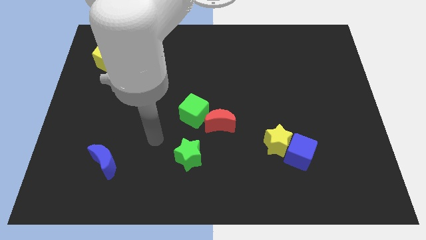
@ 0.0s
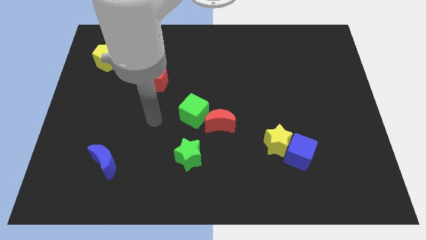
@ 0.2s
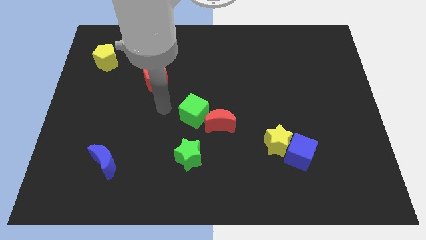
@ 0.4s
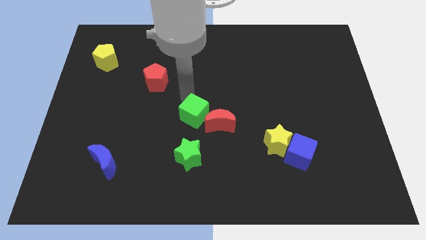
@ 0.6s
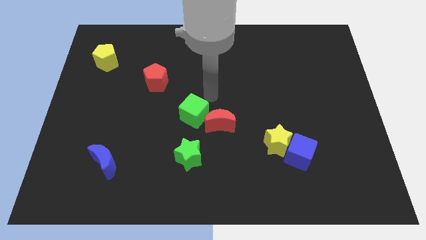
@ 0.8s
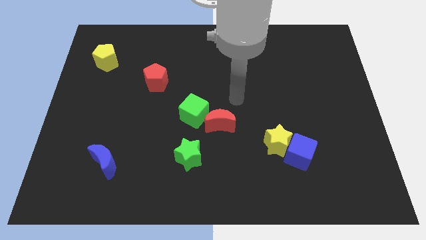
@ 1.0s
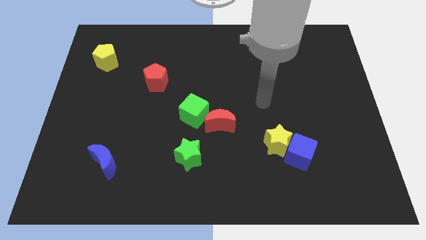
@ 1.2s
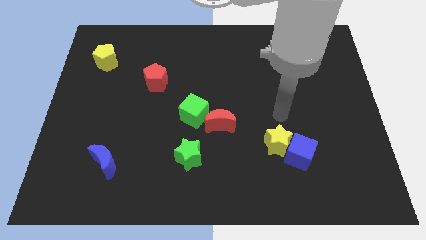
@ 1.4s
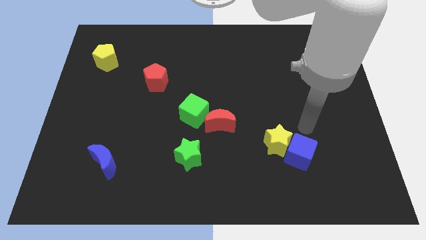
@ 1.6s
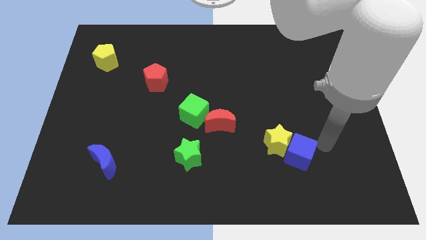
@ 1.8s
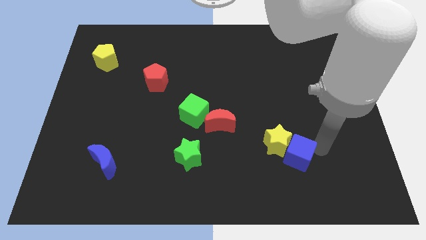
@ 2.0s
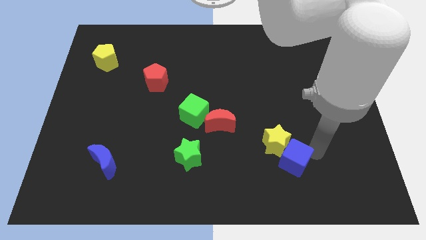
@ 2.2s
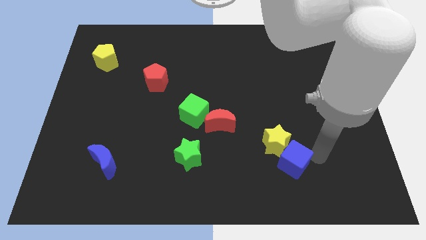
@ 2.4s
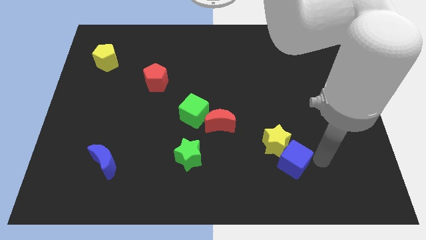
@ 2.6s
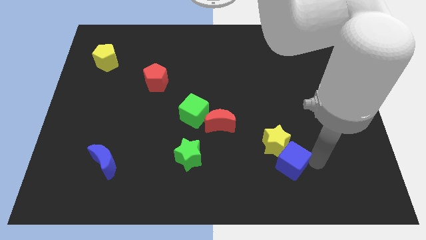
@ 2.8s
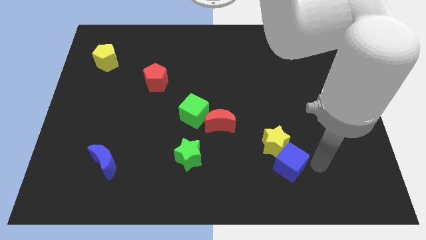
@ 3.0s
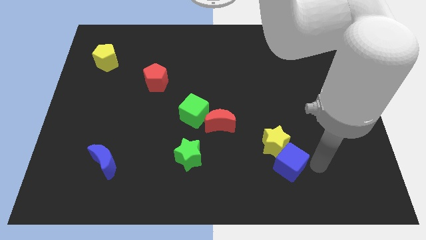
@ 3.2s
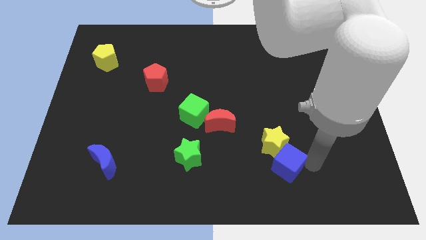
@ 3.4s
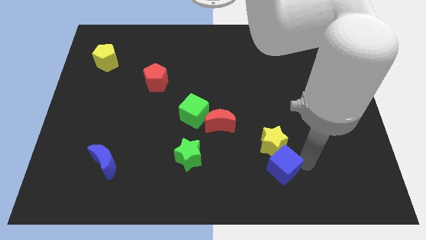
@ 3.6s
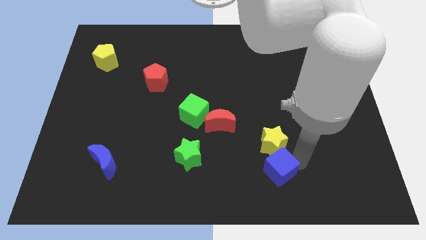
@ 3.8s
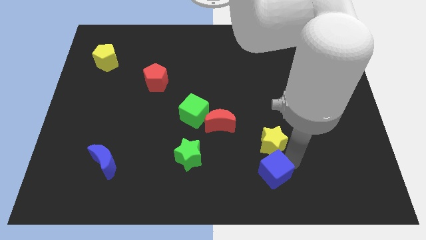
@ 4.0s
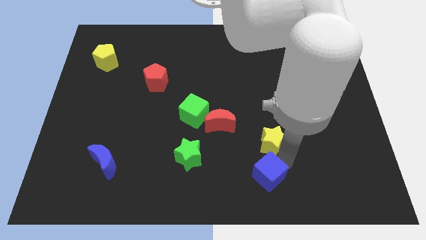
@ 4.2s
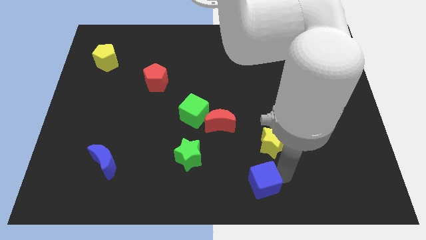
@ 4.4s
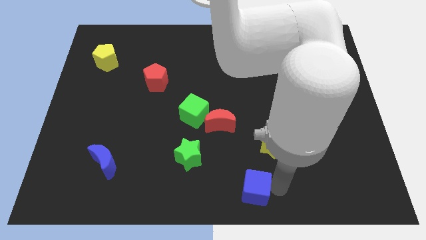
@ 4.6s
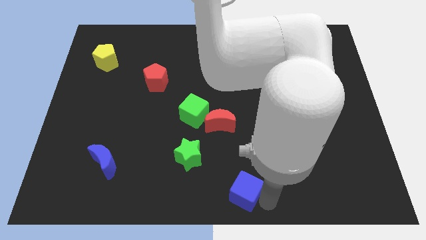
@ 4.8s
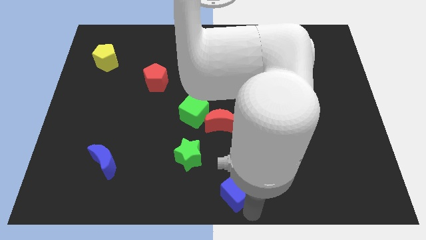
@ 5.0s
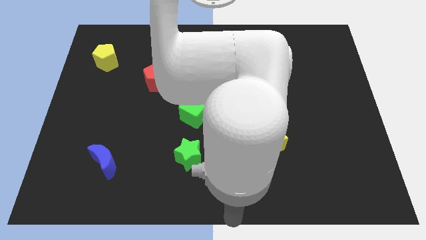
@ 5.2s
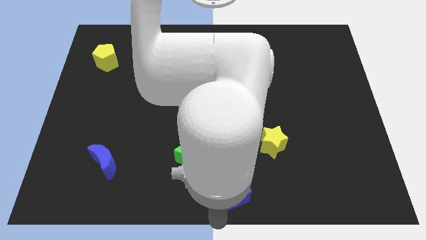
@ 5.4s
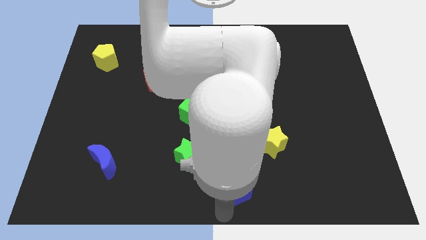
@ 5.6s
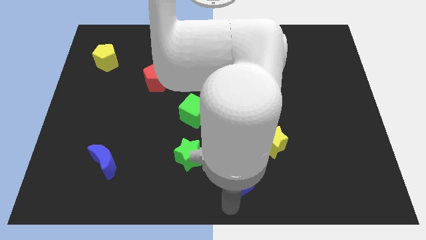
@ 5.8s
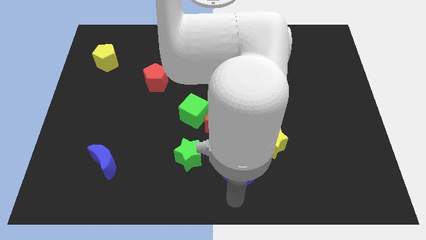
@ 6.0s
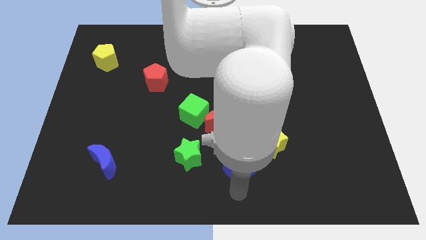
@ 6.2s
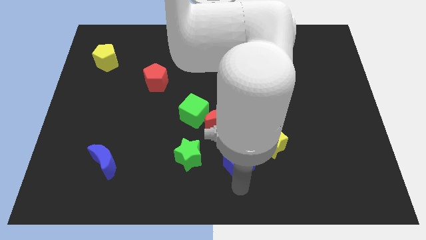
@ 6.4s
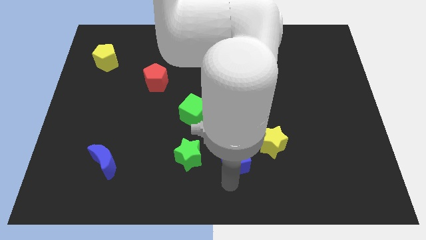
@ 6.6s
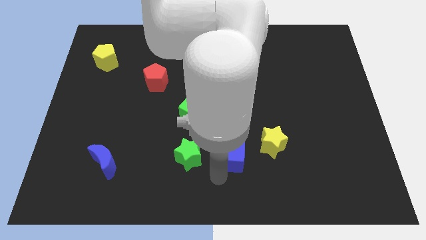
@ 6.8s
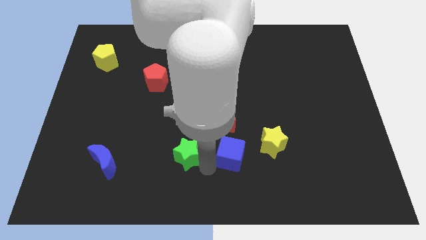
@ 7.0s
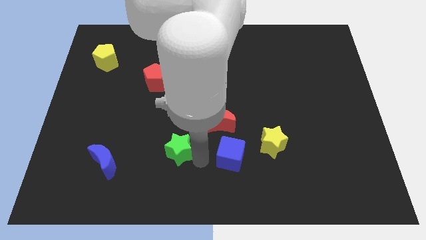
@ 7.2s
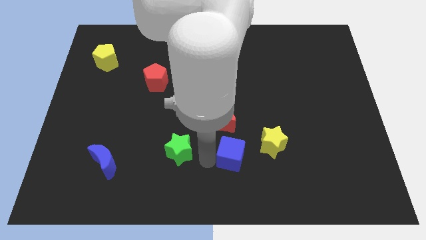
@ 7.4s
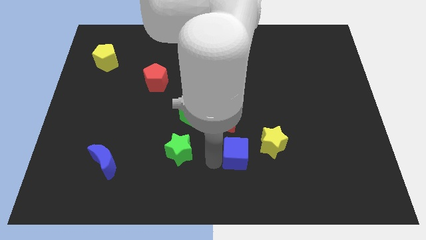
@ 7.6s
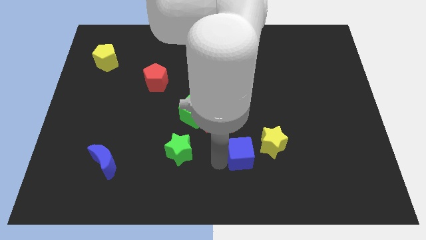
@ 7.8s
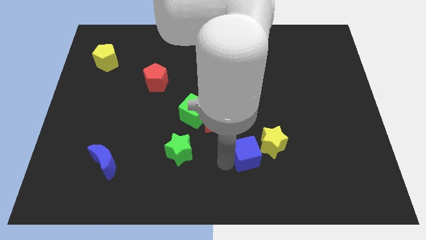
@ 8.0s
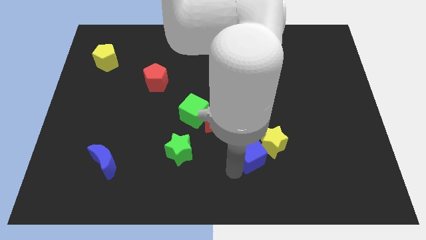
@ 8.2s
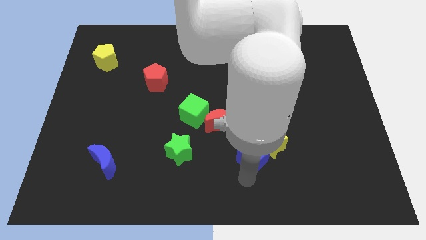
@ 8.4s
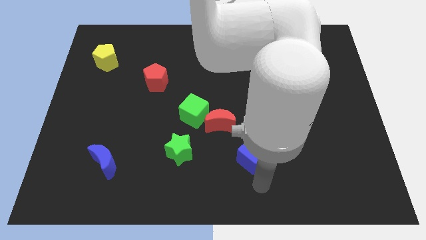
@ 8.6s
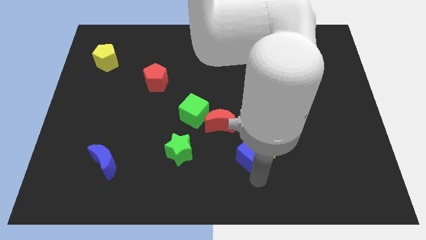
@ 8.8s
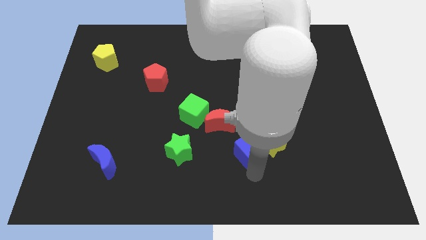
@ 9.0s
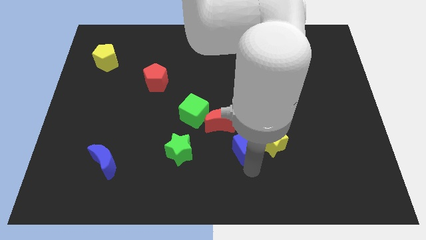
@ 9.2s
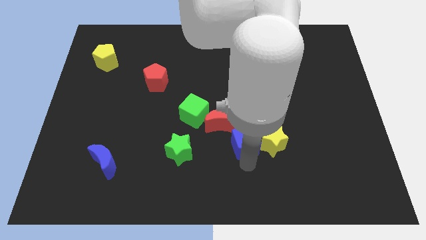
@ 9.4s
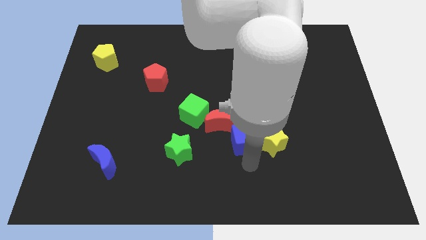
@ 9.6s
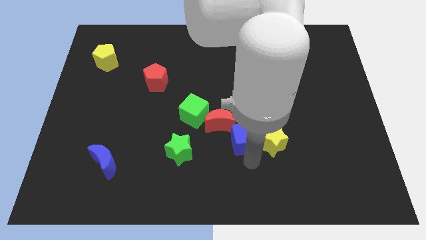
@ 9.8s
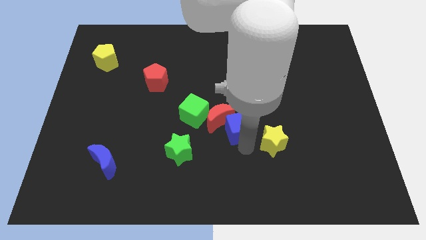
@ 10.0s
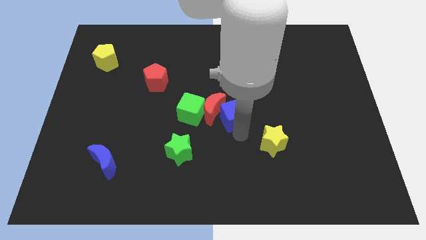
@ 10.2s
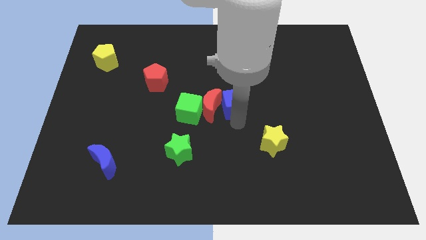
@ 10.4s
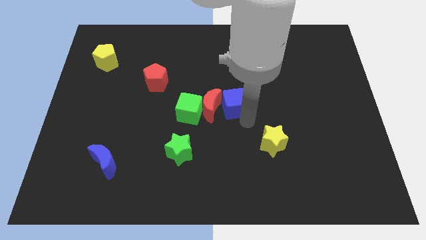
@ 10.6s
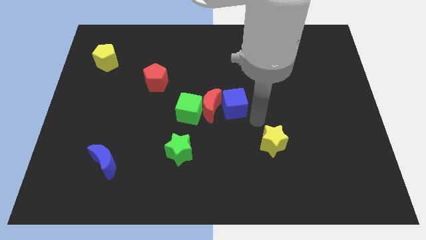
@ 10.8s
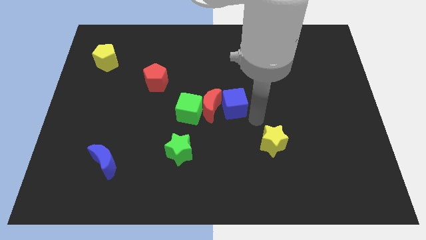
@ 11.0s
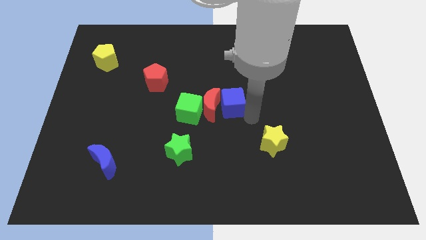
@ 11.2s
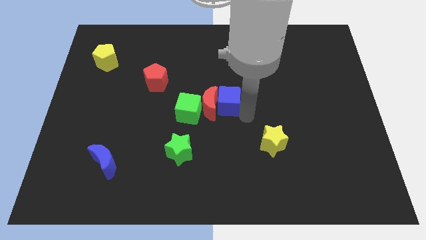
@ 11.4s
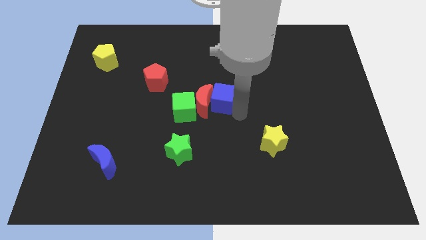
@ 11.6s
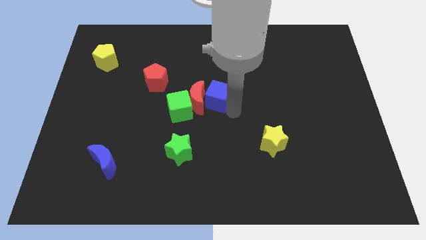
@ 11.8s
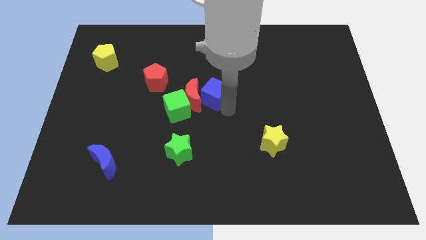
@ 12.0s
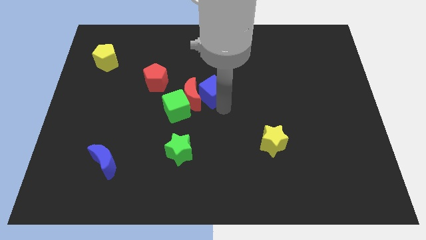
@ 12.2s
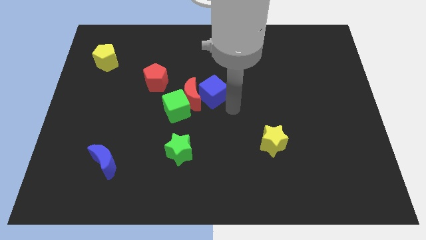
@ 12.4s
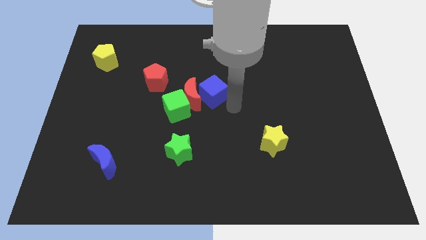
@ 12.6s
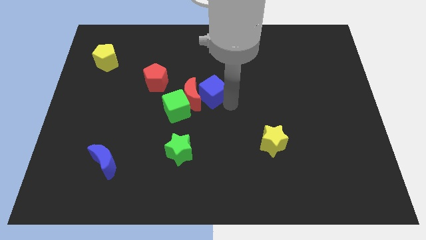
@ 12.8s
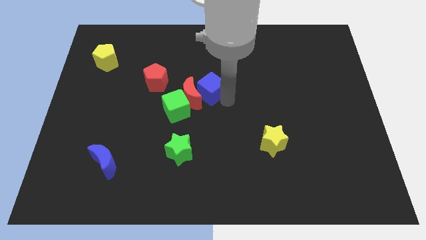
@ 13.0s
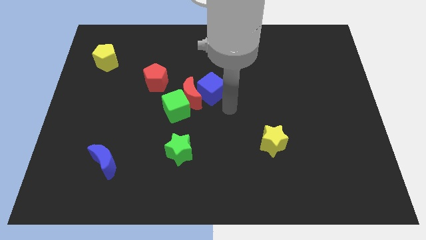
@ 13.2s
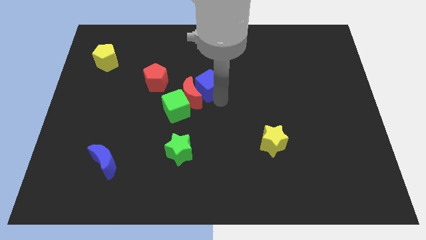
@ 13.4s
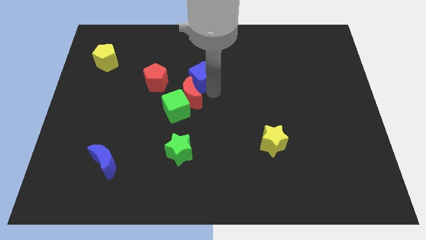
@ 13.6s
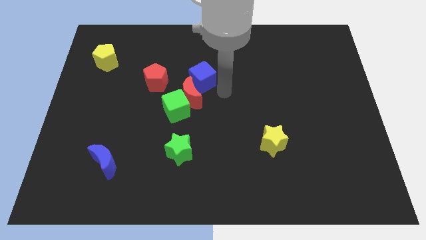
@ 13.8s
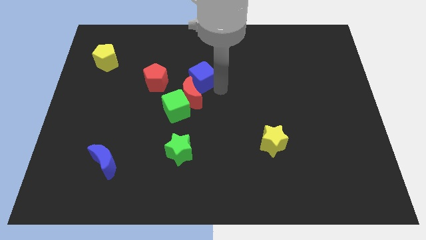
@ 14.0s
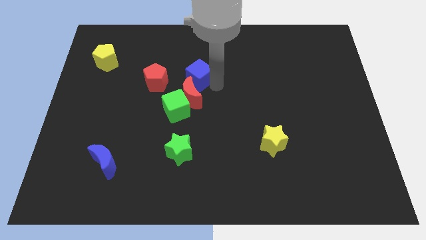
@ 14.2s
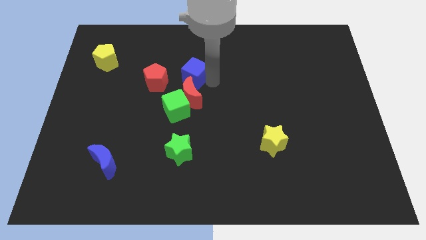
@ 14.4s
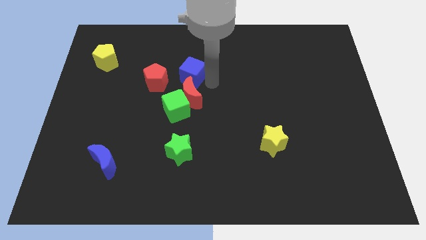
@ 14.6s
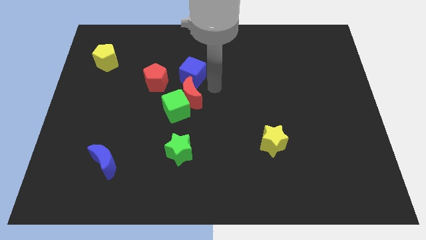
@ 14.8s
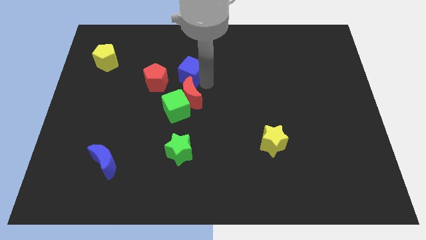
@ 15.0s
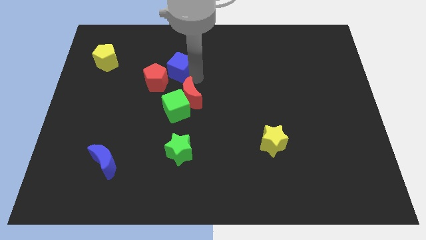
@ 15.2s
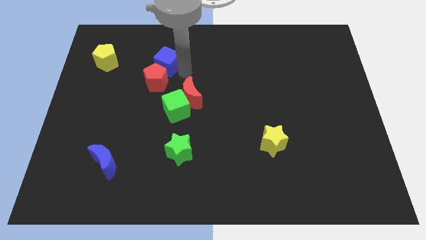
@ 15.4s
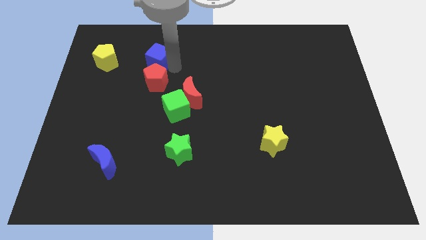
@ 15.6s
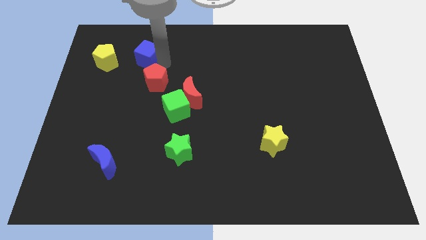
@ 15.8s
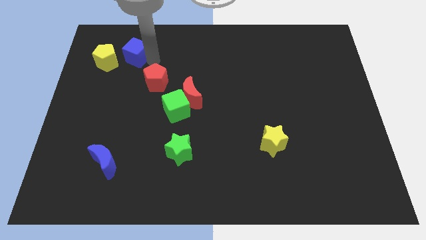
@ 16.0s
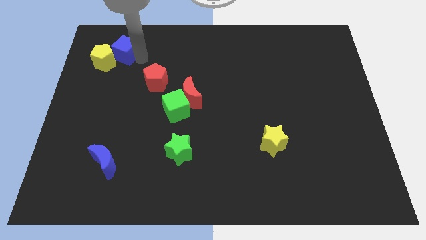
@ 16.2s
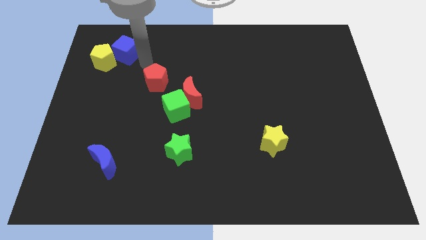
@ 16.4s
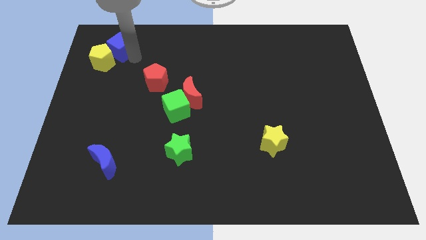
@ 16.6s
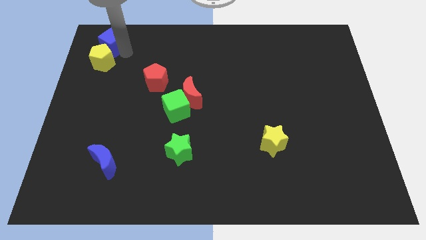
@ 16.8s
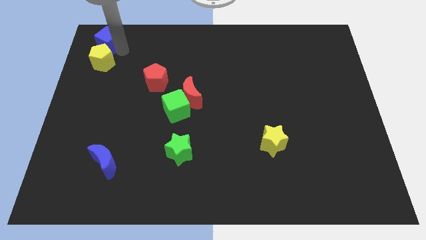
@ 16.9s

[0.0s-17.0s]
slide the blue cube to the upper left corner
